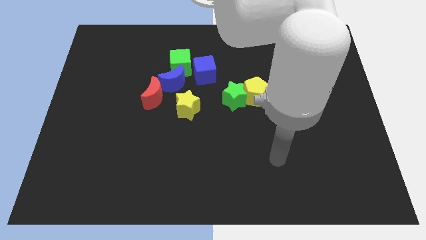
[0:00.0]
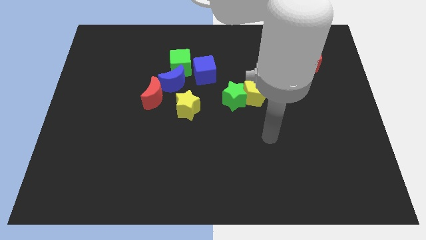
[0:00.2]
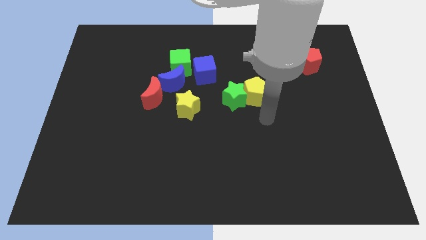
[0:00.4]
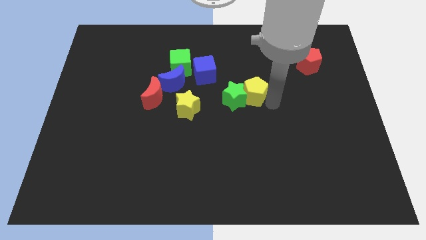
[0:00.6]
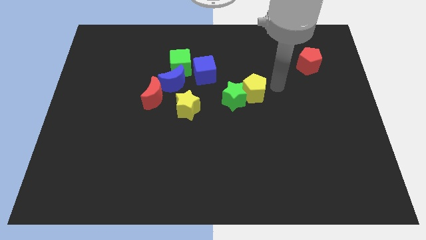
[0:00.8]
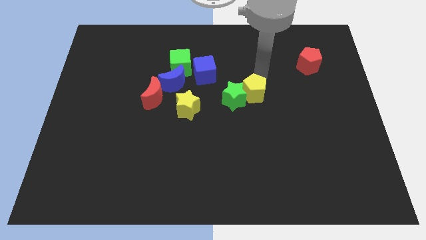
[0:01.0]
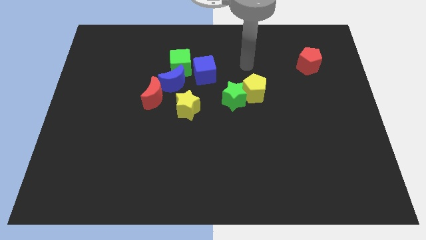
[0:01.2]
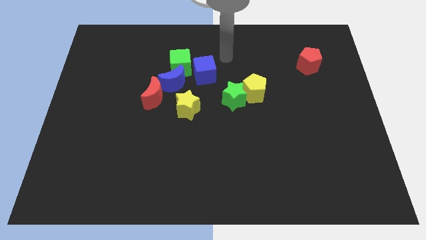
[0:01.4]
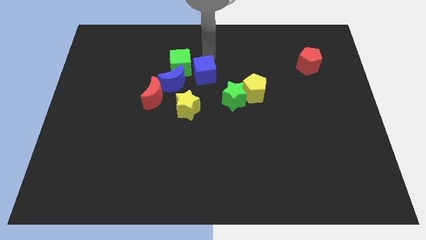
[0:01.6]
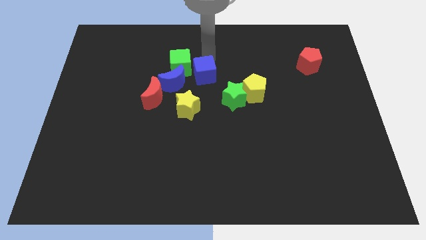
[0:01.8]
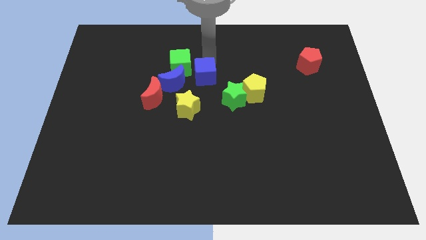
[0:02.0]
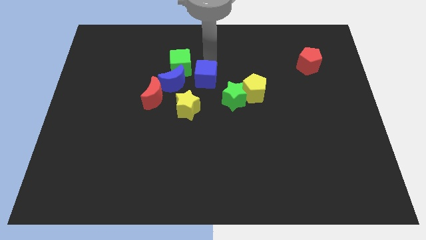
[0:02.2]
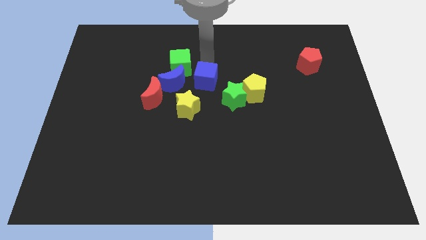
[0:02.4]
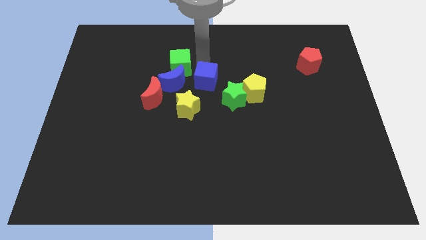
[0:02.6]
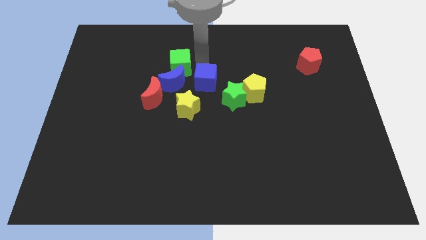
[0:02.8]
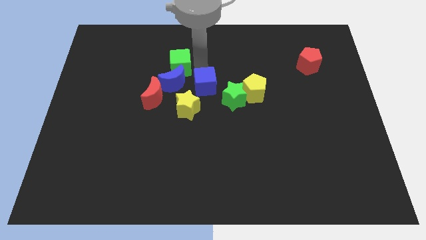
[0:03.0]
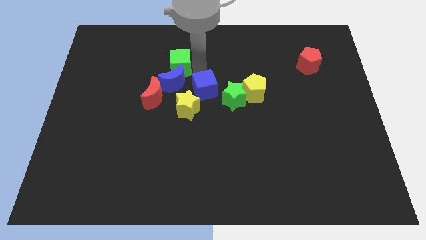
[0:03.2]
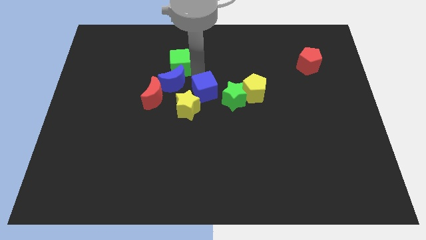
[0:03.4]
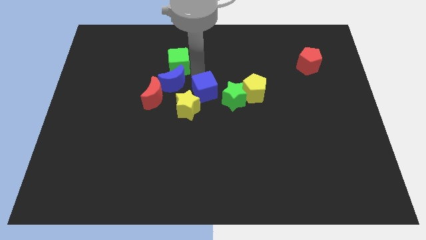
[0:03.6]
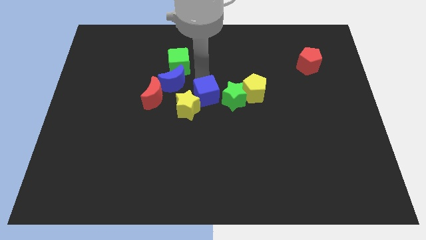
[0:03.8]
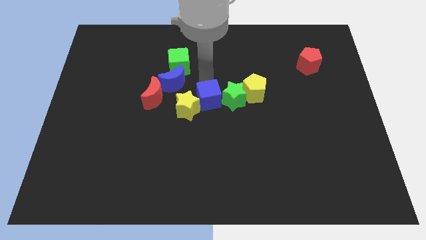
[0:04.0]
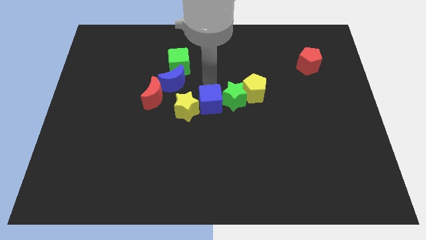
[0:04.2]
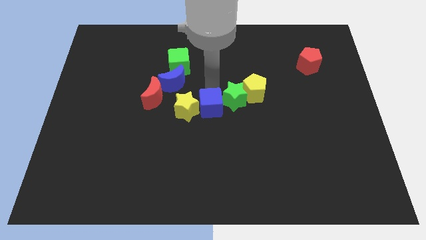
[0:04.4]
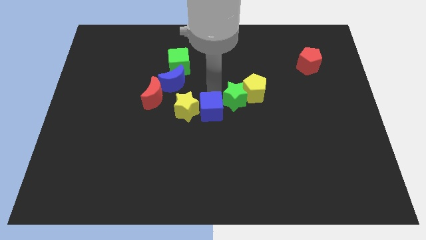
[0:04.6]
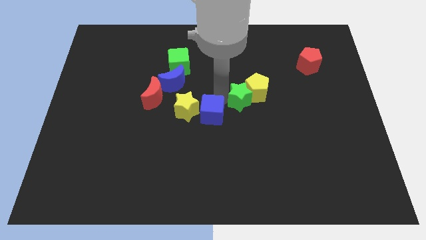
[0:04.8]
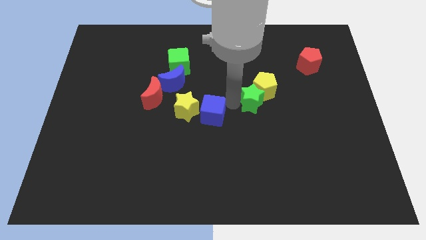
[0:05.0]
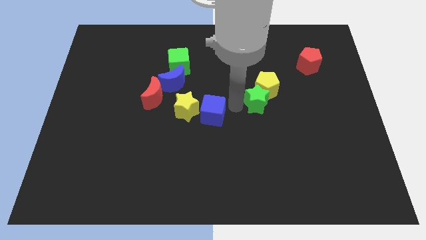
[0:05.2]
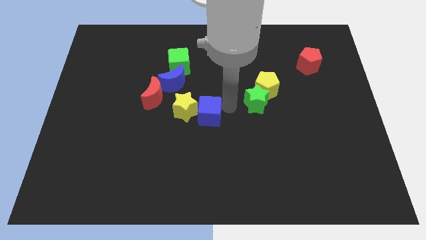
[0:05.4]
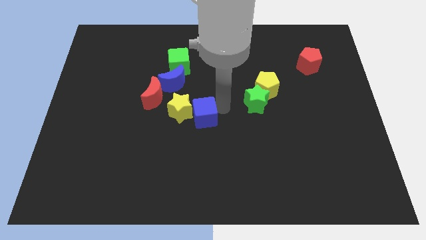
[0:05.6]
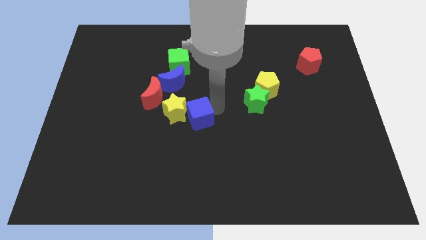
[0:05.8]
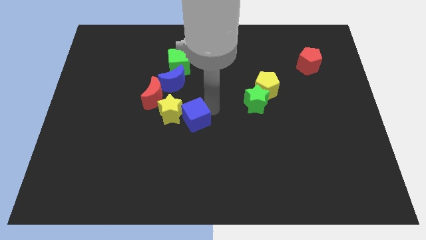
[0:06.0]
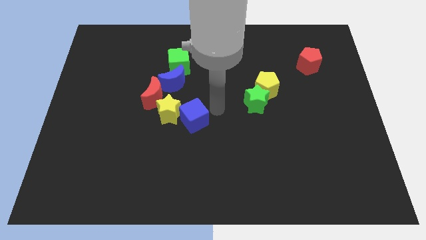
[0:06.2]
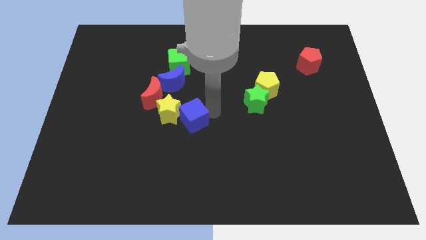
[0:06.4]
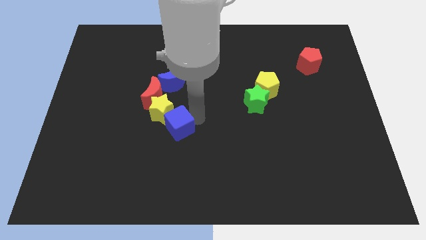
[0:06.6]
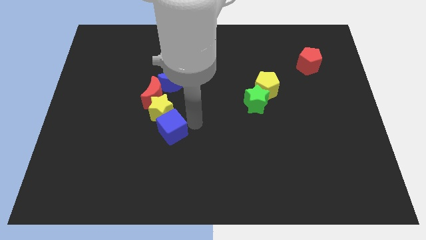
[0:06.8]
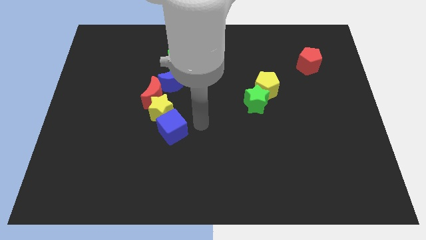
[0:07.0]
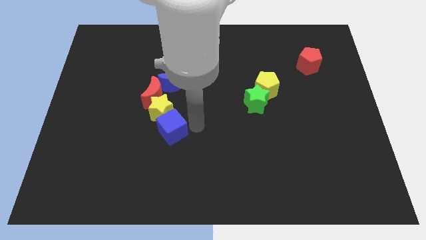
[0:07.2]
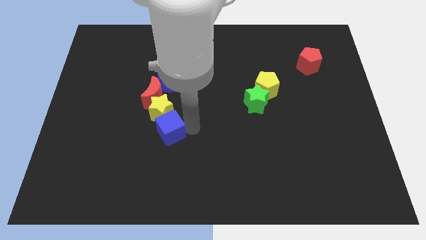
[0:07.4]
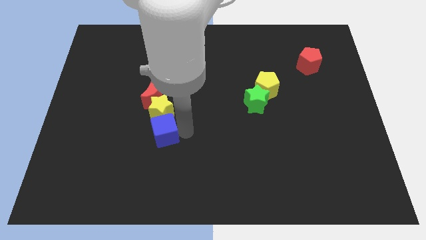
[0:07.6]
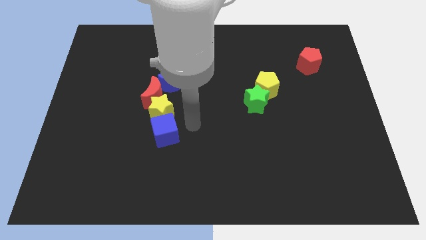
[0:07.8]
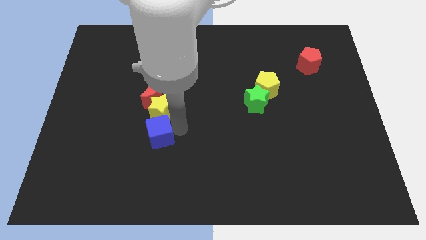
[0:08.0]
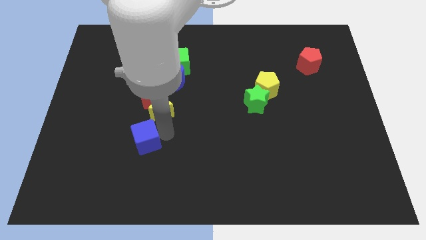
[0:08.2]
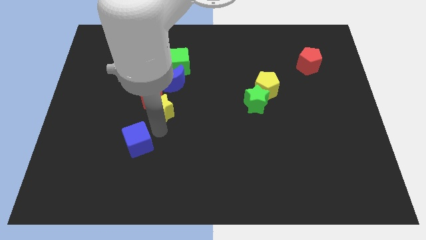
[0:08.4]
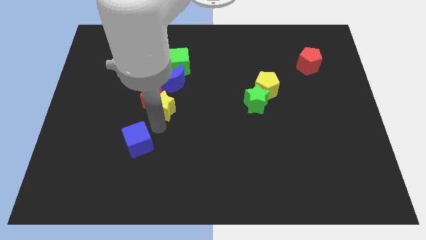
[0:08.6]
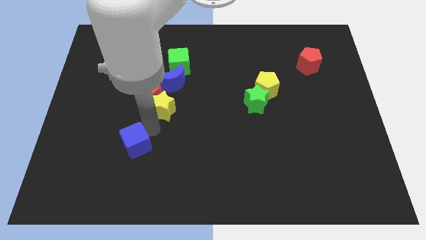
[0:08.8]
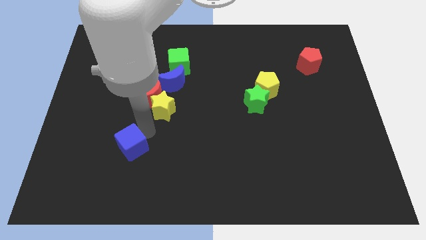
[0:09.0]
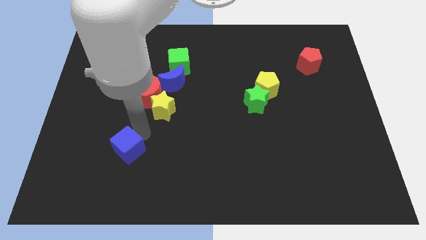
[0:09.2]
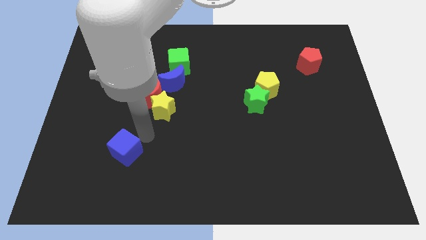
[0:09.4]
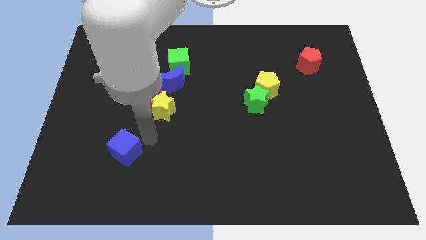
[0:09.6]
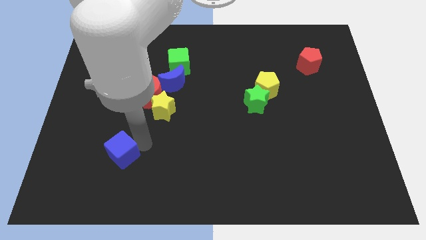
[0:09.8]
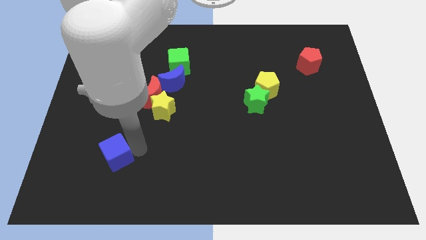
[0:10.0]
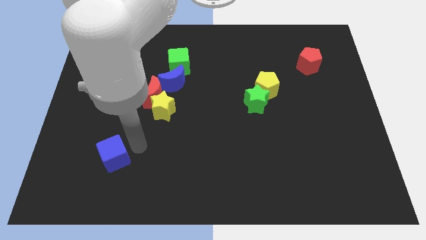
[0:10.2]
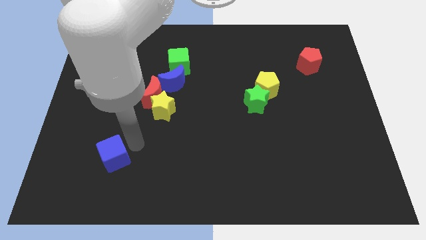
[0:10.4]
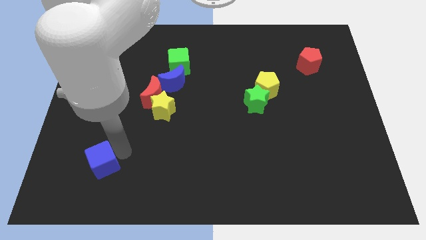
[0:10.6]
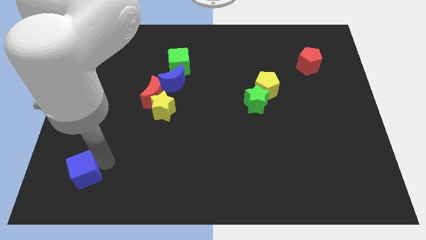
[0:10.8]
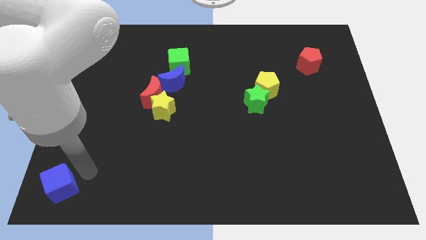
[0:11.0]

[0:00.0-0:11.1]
push the blue cube to the bottom left
